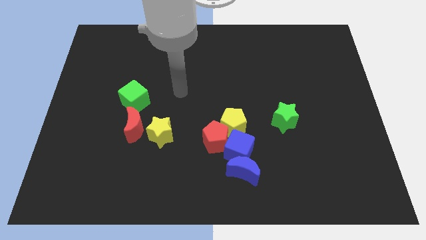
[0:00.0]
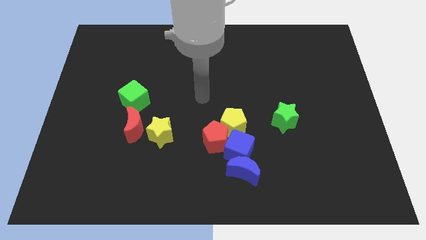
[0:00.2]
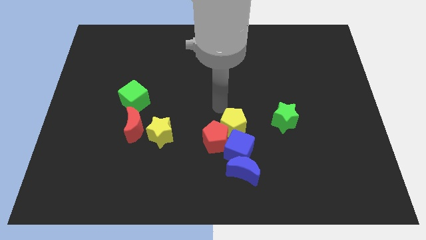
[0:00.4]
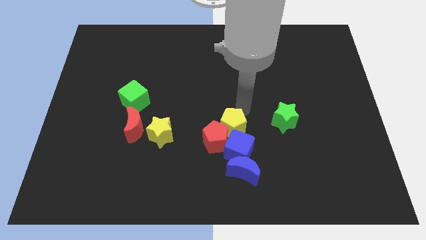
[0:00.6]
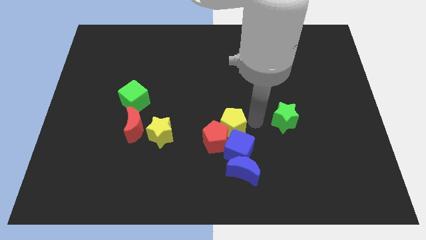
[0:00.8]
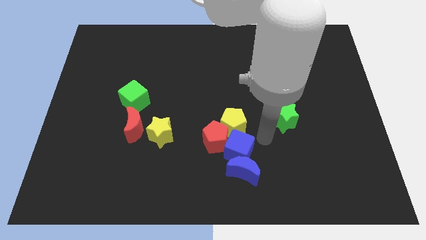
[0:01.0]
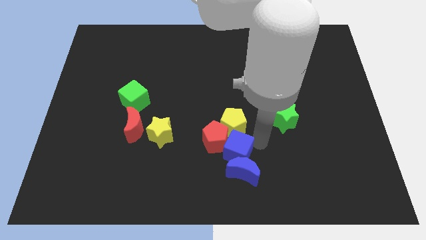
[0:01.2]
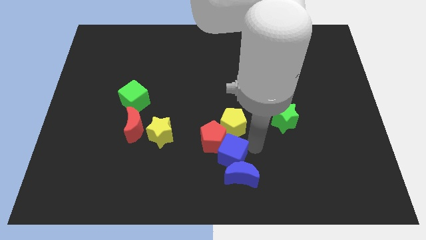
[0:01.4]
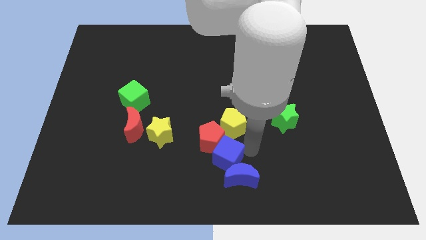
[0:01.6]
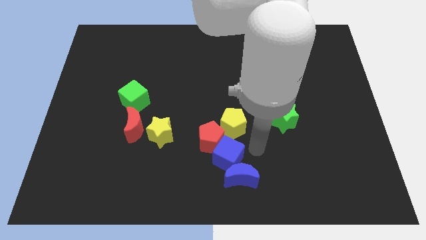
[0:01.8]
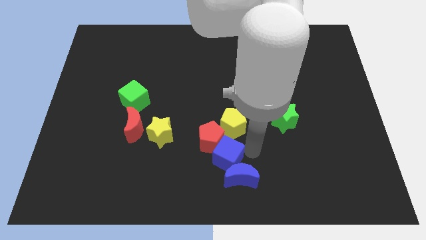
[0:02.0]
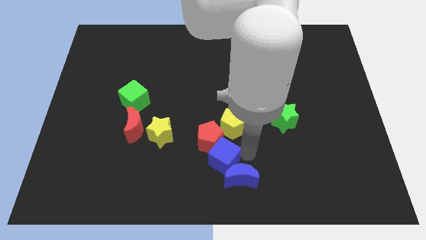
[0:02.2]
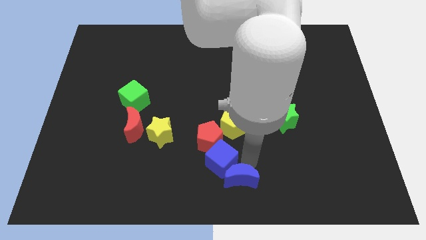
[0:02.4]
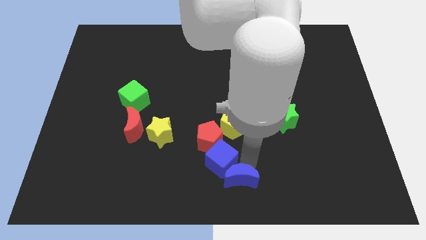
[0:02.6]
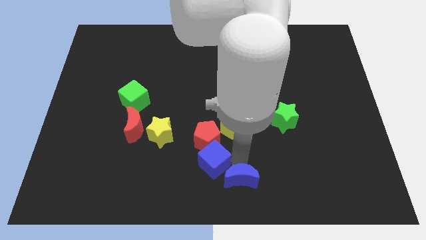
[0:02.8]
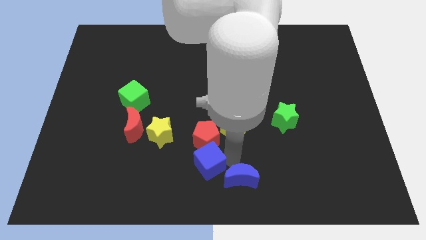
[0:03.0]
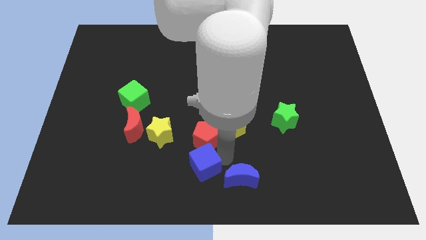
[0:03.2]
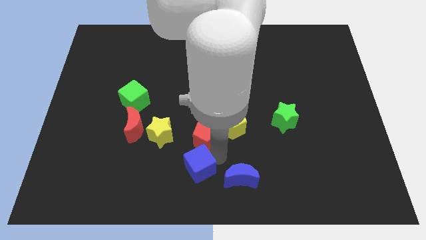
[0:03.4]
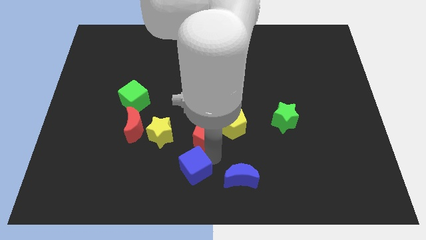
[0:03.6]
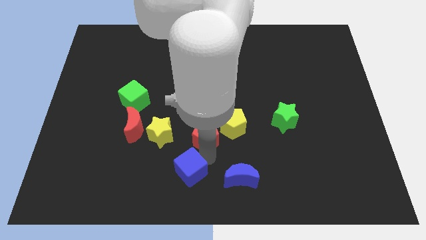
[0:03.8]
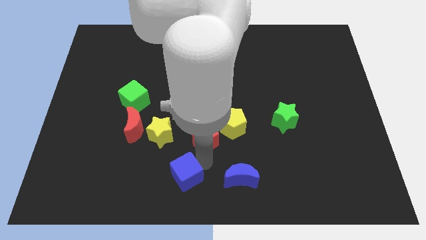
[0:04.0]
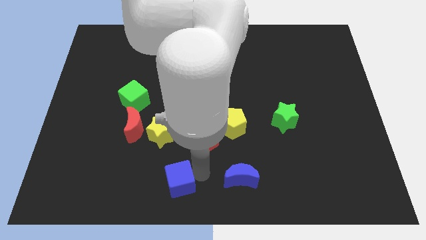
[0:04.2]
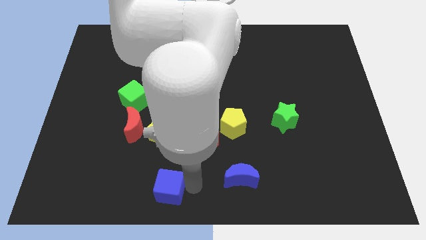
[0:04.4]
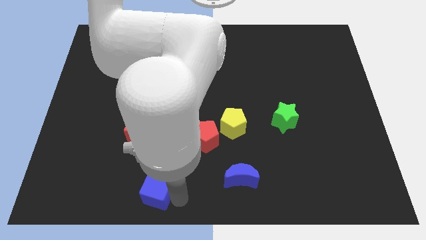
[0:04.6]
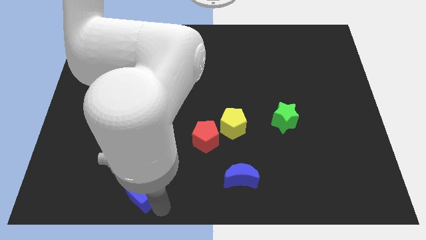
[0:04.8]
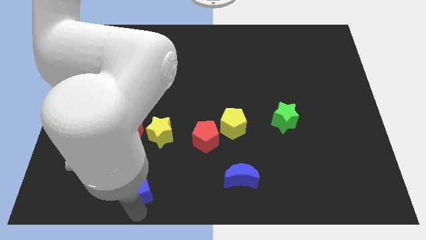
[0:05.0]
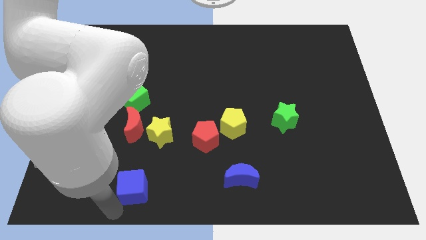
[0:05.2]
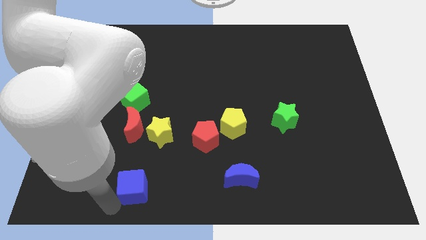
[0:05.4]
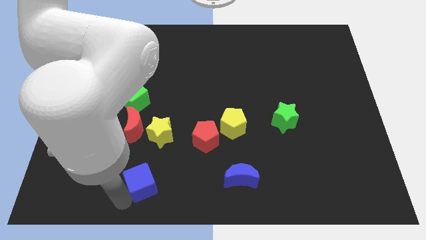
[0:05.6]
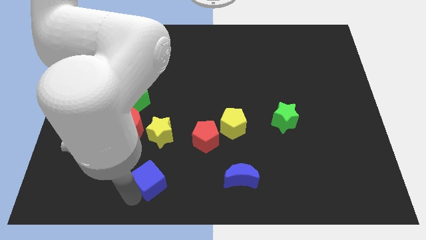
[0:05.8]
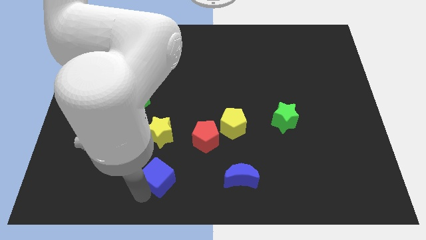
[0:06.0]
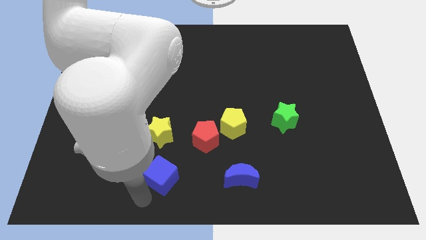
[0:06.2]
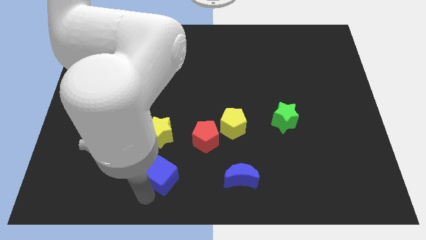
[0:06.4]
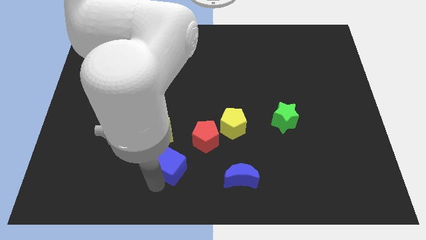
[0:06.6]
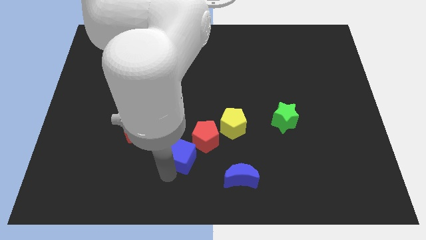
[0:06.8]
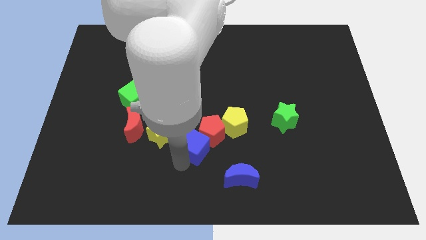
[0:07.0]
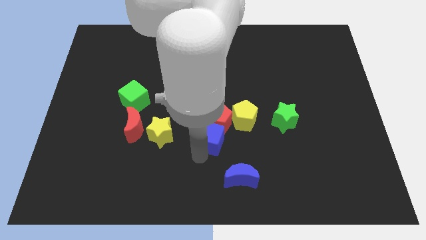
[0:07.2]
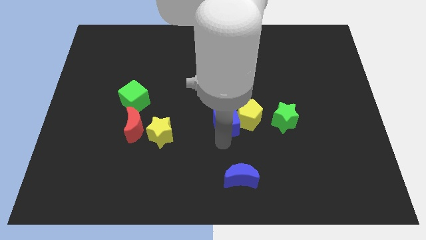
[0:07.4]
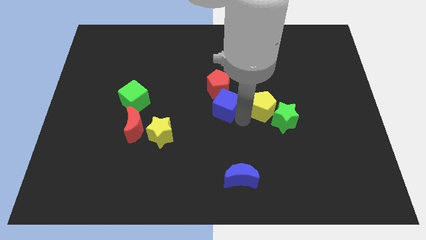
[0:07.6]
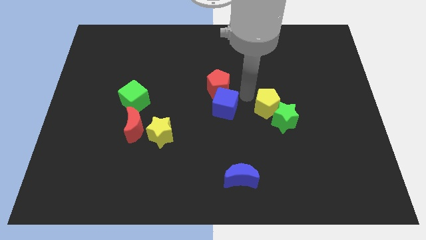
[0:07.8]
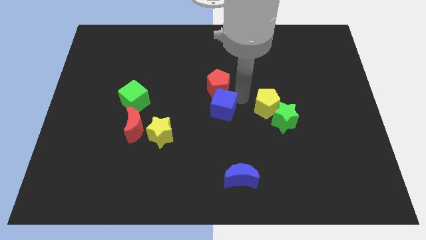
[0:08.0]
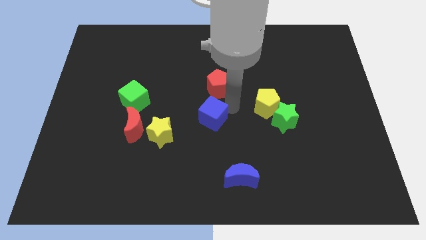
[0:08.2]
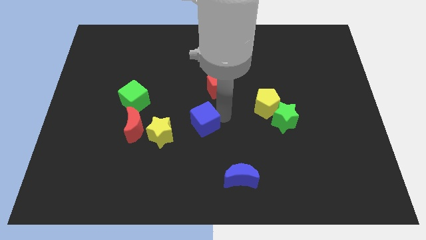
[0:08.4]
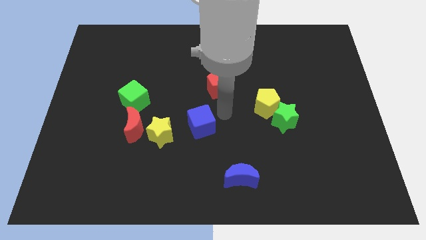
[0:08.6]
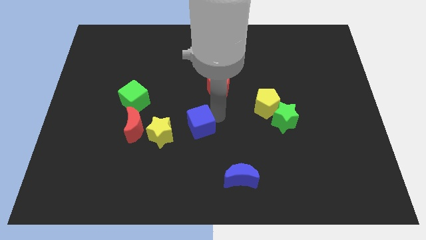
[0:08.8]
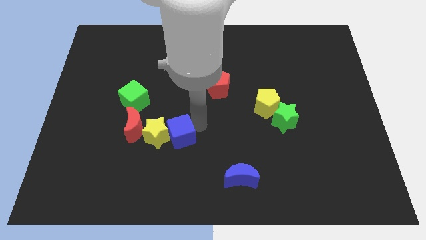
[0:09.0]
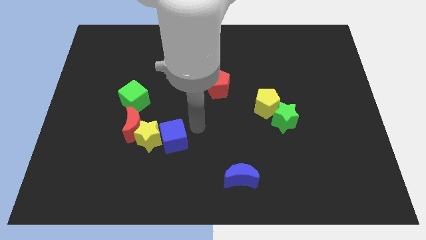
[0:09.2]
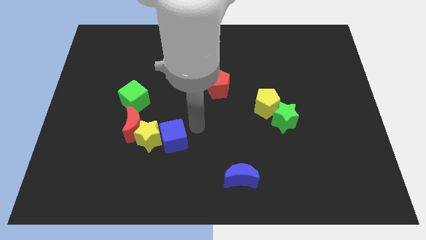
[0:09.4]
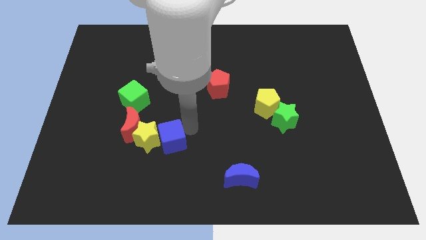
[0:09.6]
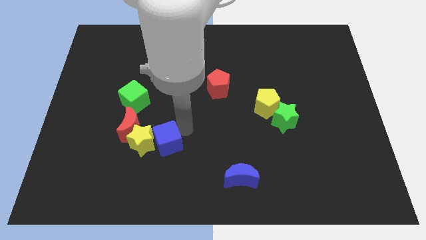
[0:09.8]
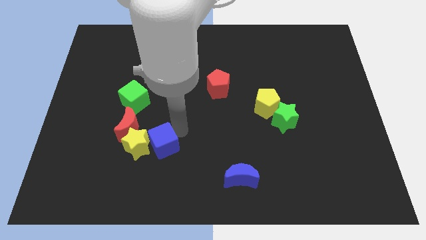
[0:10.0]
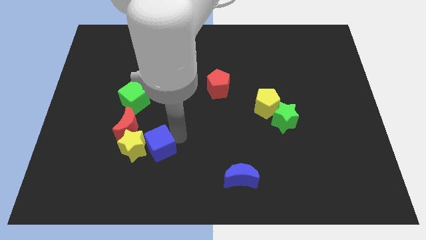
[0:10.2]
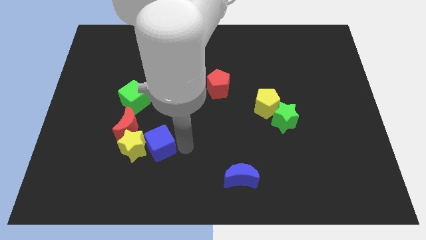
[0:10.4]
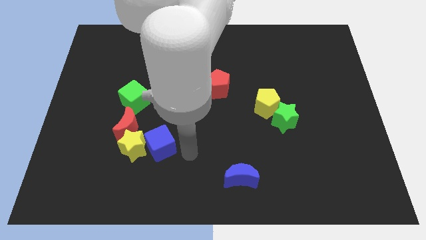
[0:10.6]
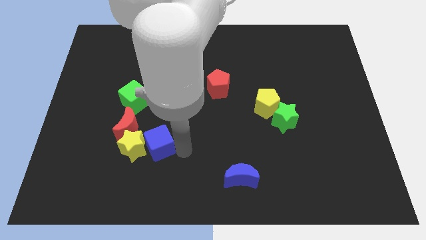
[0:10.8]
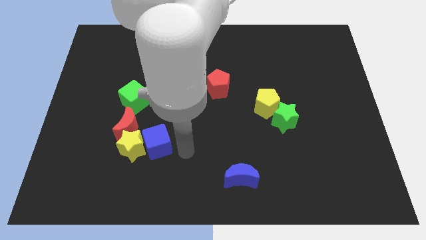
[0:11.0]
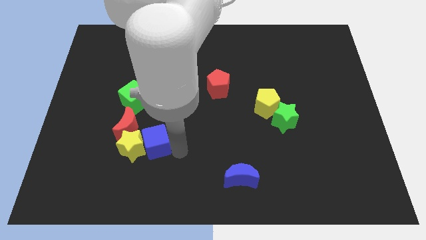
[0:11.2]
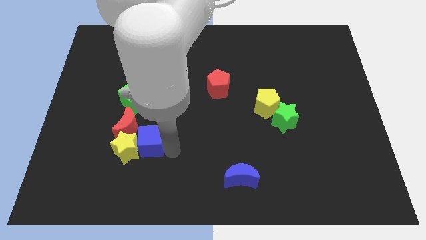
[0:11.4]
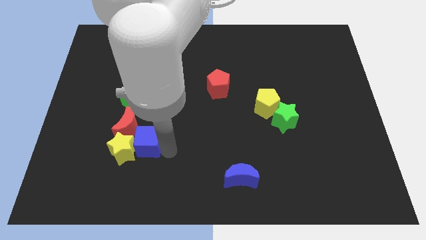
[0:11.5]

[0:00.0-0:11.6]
move the blue cube below the green cube

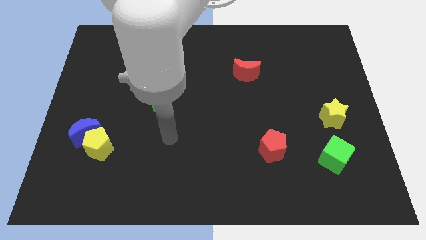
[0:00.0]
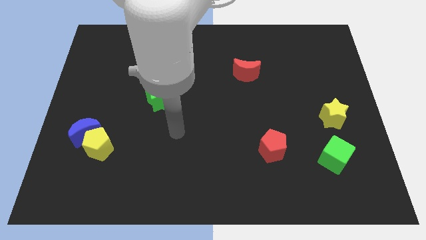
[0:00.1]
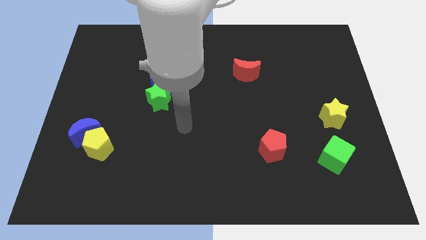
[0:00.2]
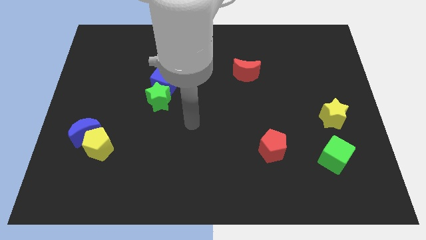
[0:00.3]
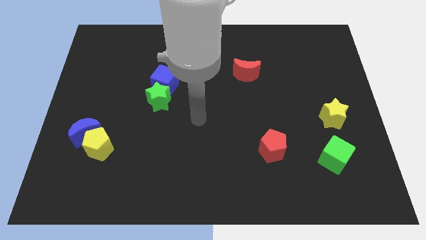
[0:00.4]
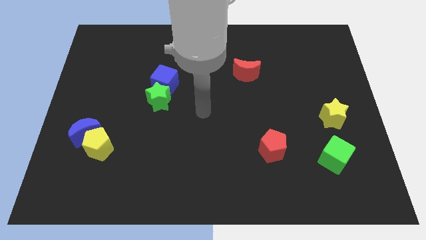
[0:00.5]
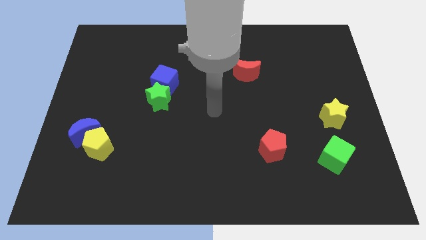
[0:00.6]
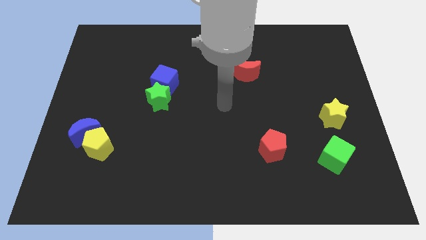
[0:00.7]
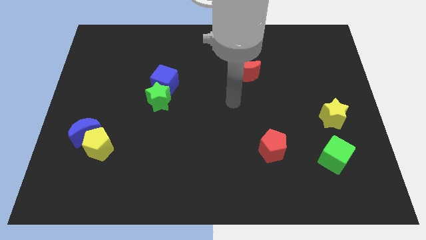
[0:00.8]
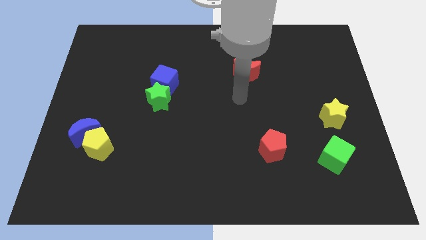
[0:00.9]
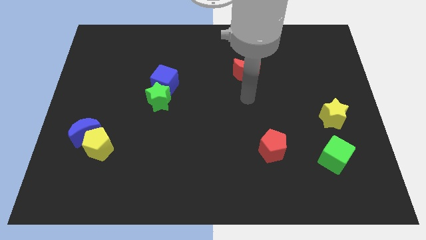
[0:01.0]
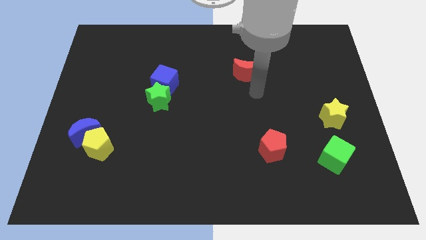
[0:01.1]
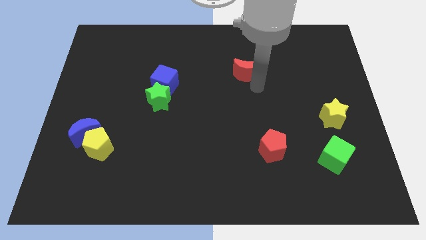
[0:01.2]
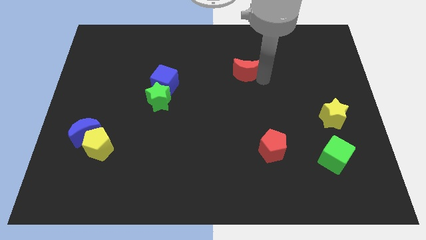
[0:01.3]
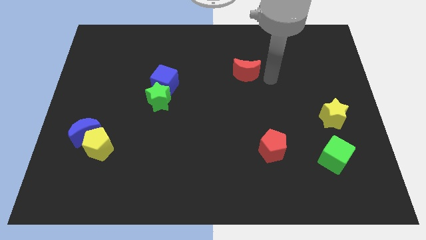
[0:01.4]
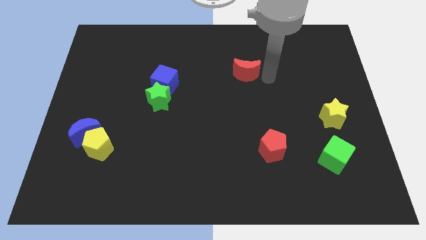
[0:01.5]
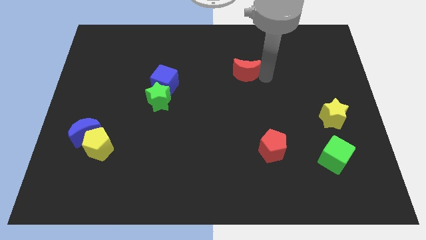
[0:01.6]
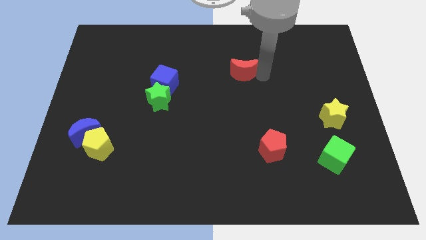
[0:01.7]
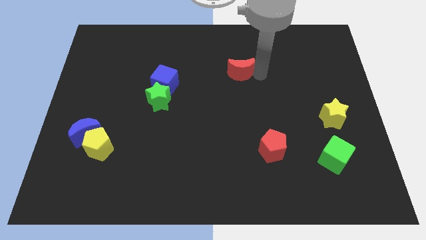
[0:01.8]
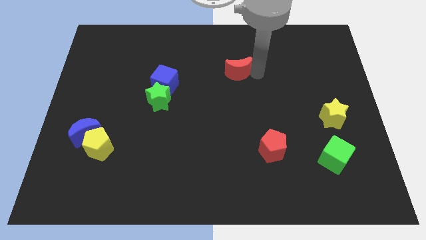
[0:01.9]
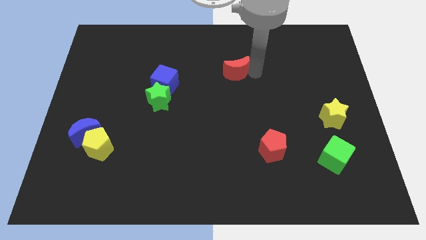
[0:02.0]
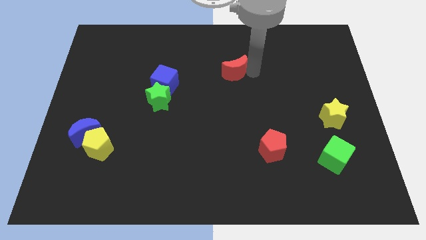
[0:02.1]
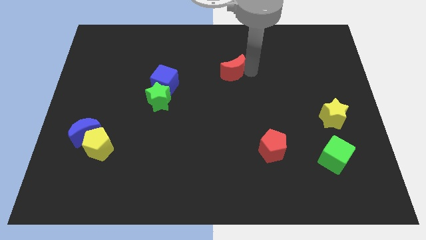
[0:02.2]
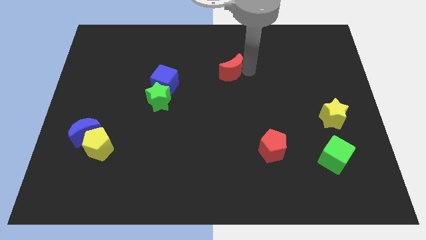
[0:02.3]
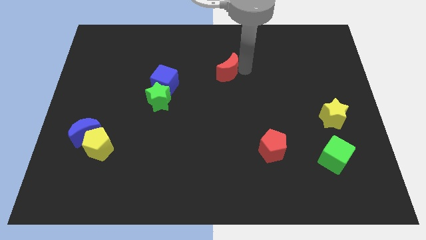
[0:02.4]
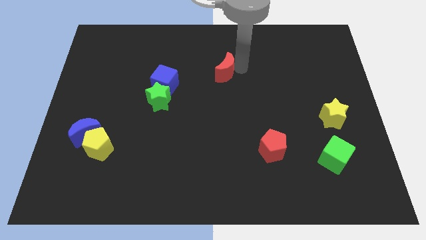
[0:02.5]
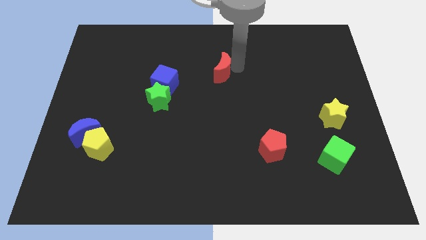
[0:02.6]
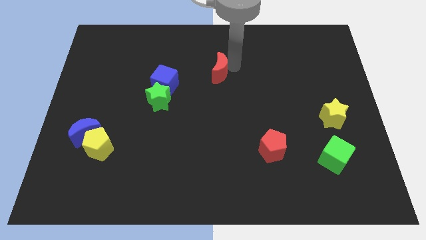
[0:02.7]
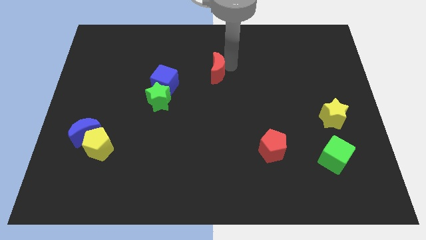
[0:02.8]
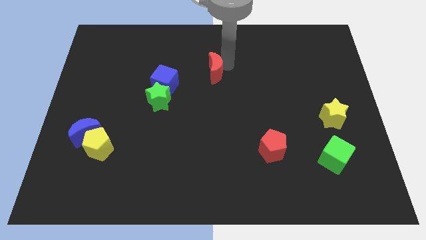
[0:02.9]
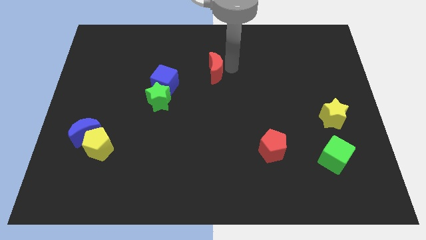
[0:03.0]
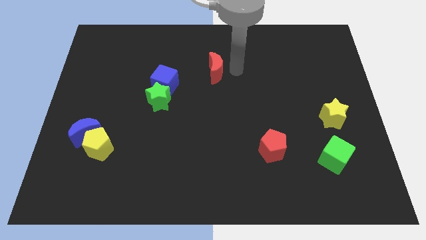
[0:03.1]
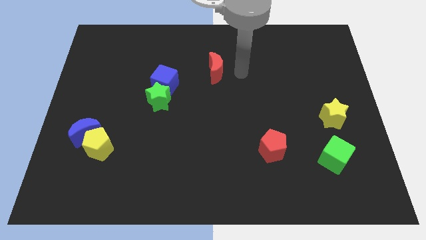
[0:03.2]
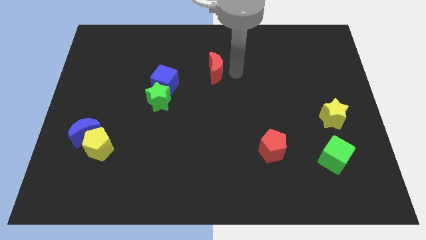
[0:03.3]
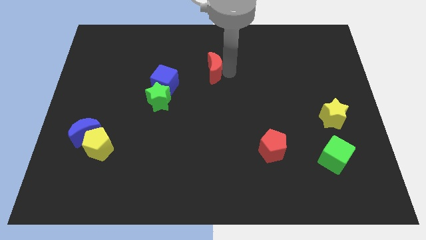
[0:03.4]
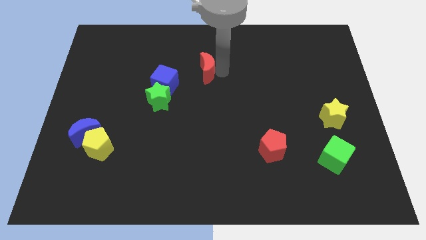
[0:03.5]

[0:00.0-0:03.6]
put the red moon to the top right of the blue cube
